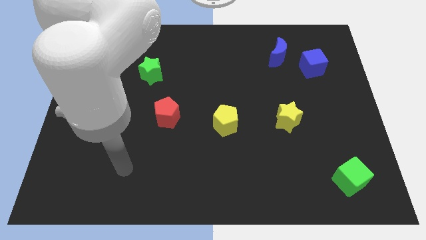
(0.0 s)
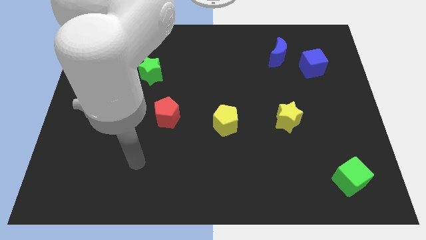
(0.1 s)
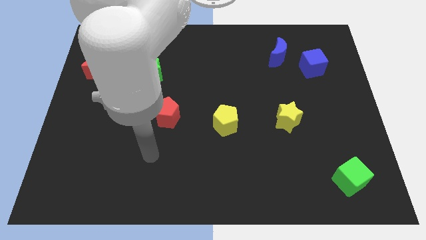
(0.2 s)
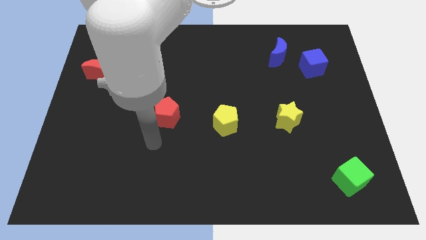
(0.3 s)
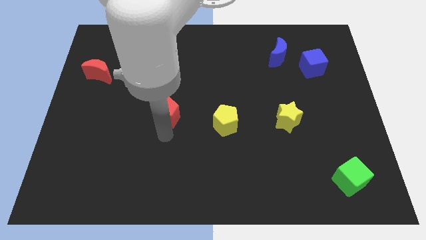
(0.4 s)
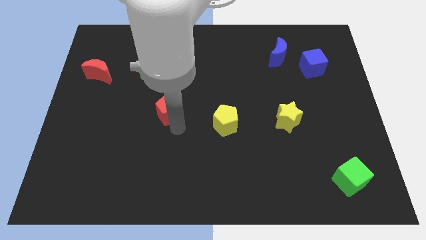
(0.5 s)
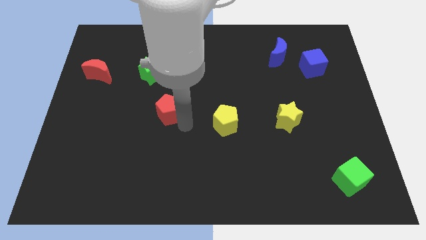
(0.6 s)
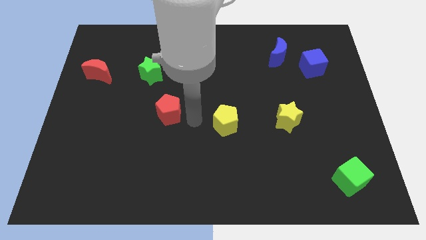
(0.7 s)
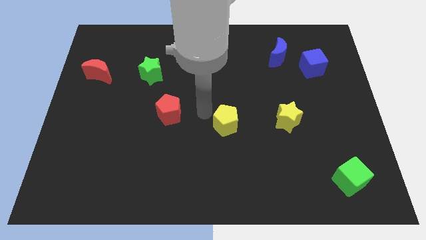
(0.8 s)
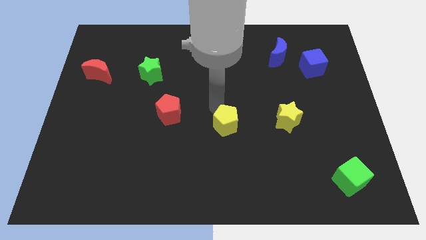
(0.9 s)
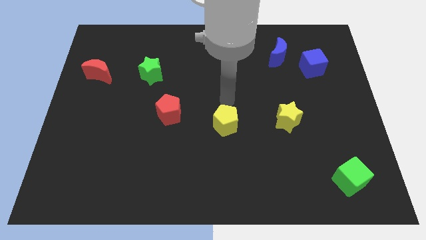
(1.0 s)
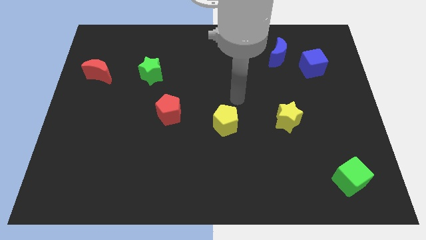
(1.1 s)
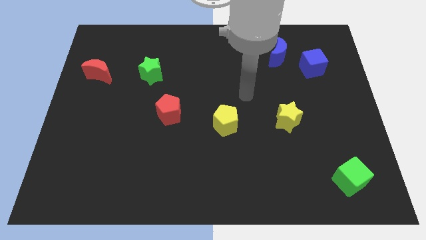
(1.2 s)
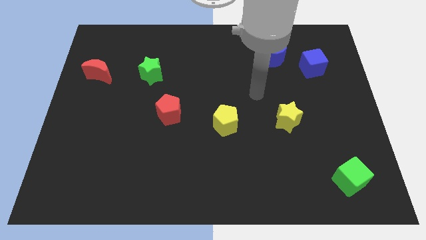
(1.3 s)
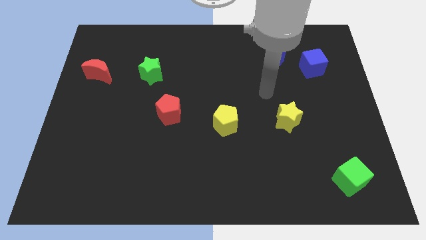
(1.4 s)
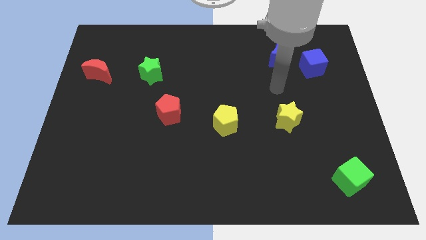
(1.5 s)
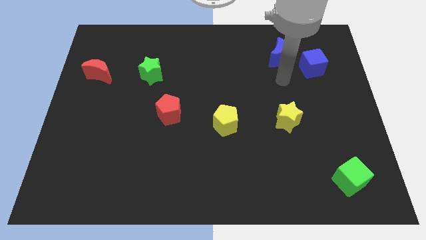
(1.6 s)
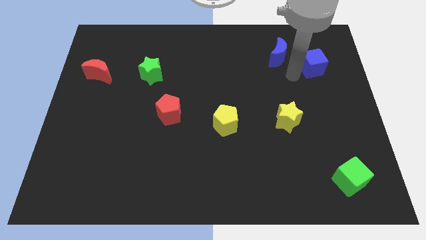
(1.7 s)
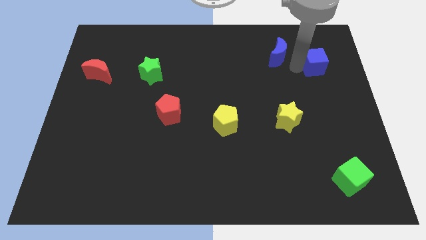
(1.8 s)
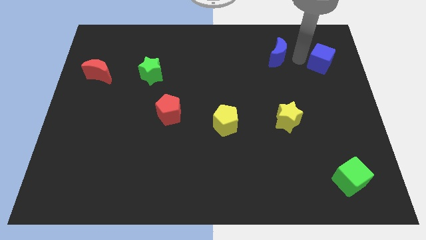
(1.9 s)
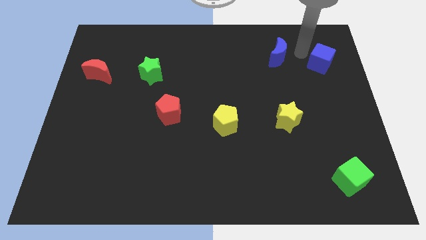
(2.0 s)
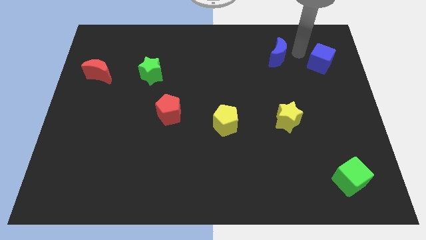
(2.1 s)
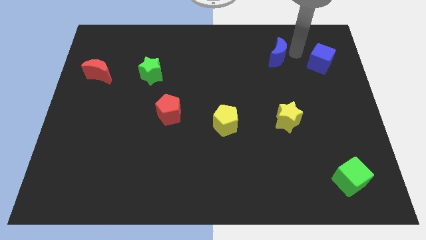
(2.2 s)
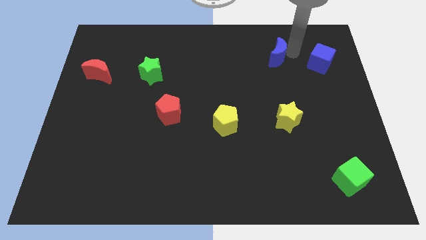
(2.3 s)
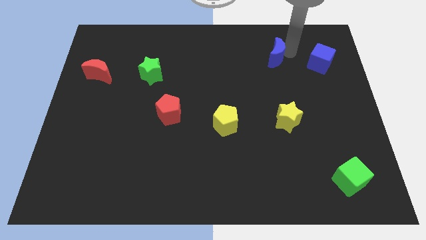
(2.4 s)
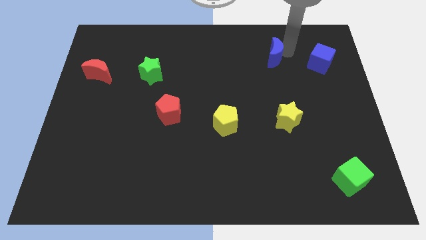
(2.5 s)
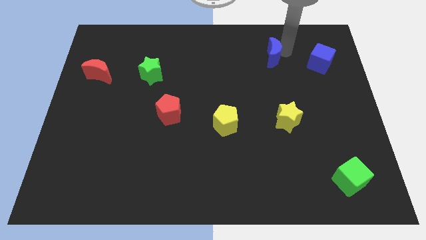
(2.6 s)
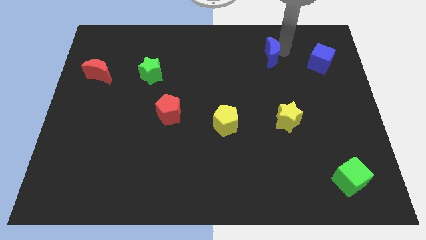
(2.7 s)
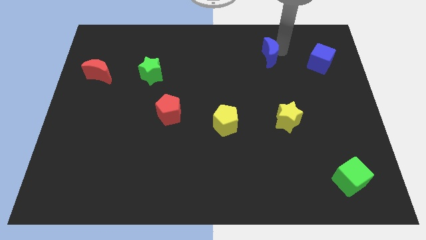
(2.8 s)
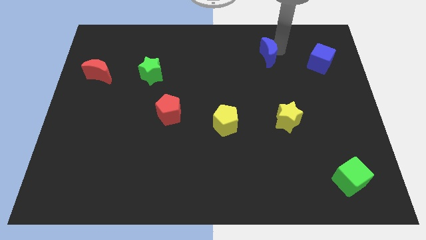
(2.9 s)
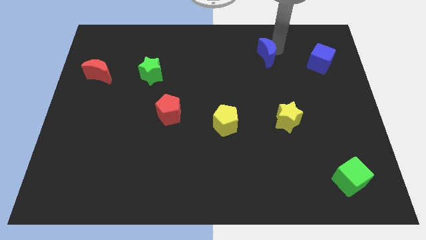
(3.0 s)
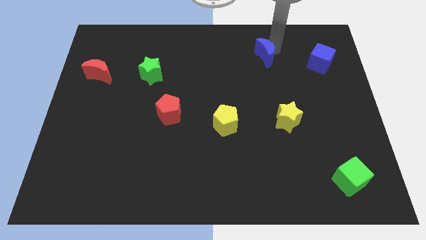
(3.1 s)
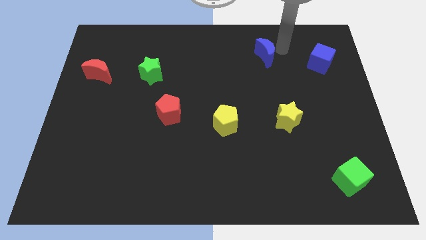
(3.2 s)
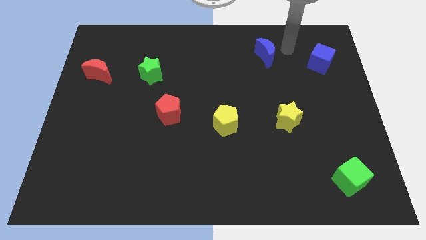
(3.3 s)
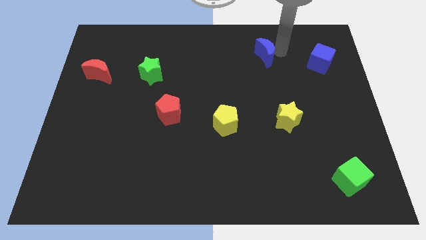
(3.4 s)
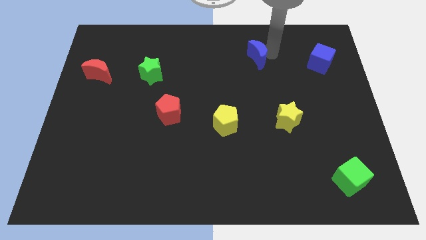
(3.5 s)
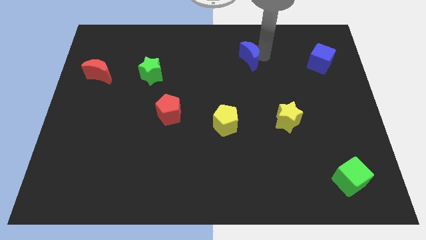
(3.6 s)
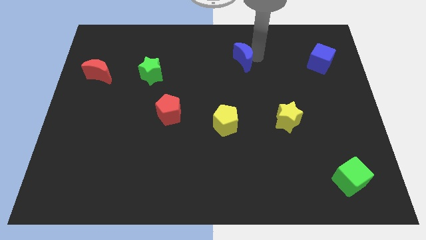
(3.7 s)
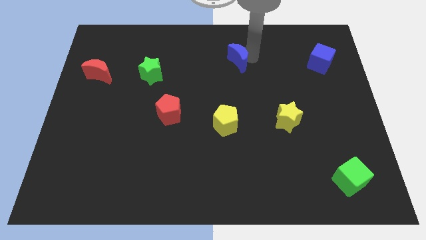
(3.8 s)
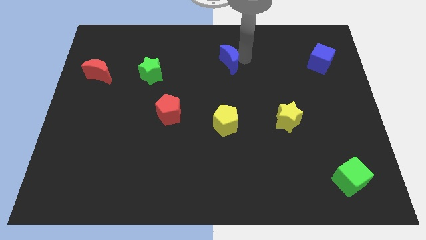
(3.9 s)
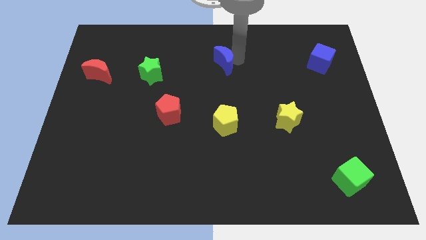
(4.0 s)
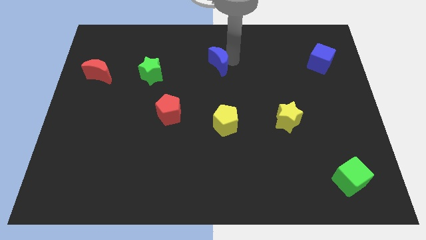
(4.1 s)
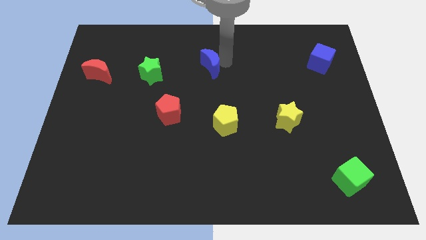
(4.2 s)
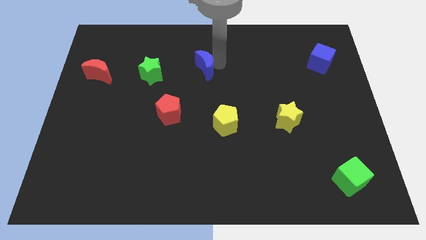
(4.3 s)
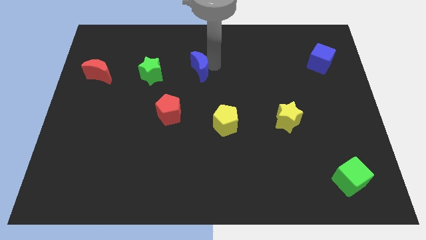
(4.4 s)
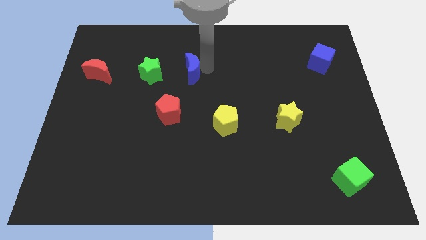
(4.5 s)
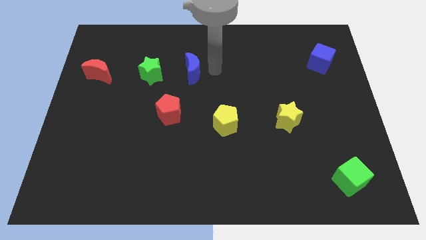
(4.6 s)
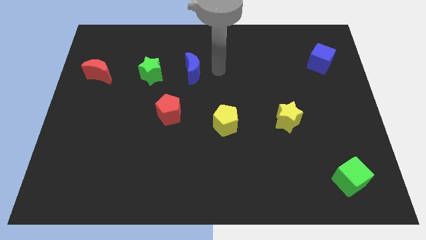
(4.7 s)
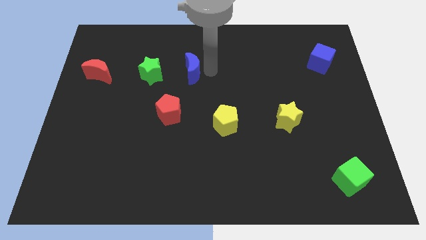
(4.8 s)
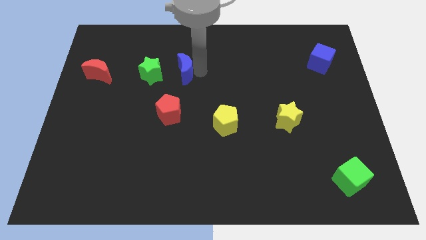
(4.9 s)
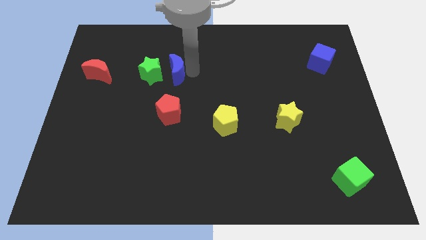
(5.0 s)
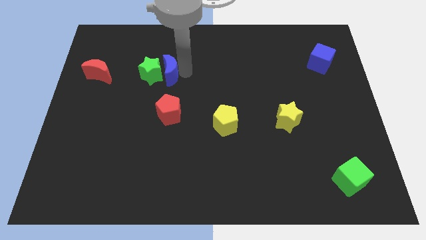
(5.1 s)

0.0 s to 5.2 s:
put the blue moon to the green star

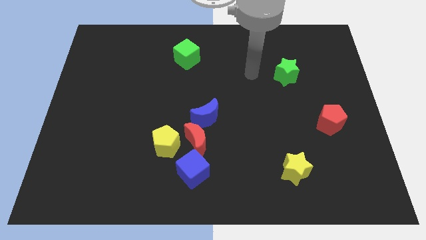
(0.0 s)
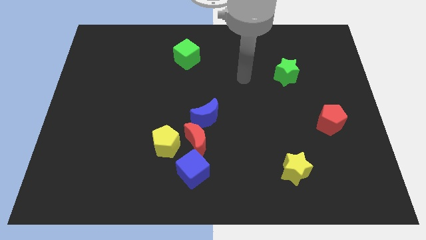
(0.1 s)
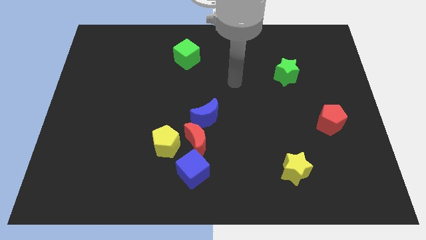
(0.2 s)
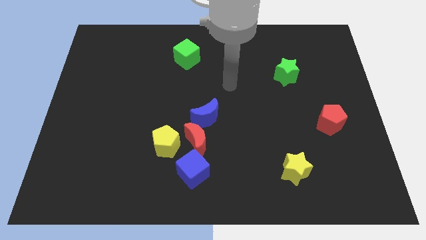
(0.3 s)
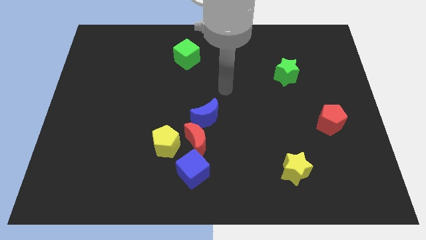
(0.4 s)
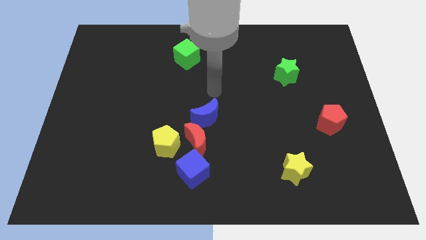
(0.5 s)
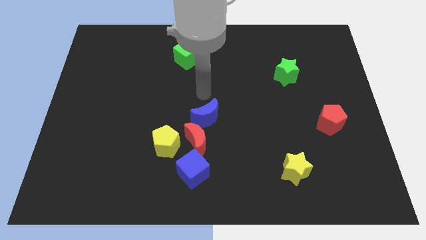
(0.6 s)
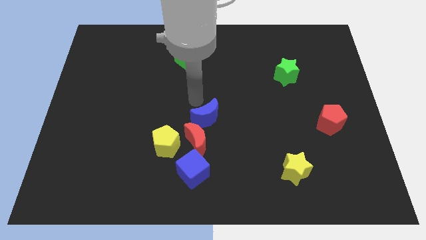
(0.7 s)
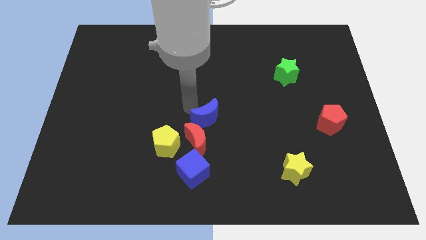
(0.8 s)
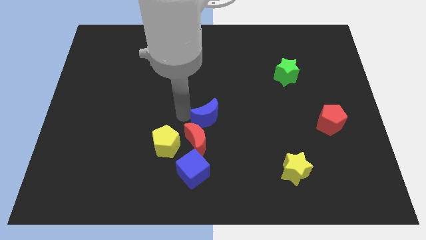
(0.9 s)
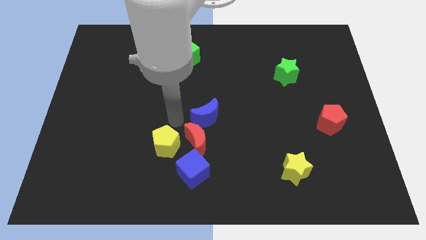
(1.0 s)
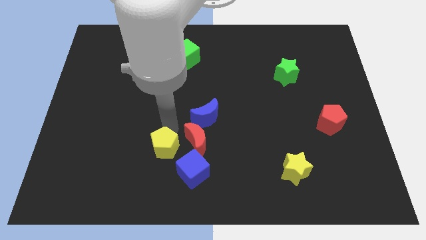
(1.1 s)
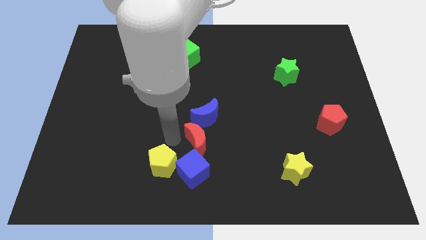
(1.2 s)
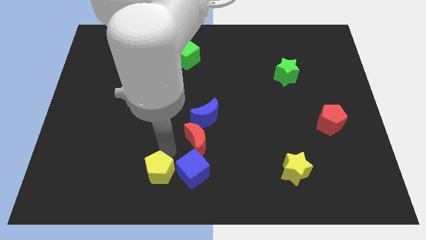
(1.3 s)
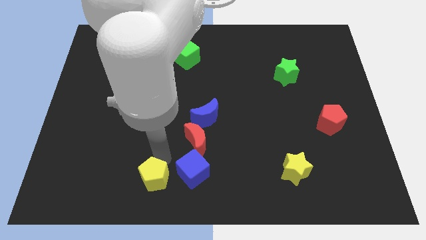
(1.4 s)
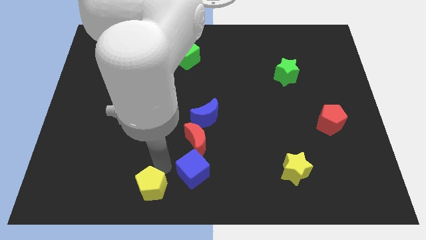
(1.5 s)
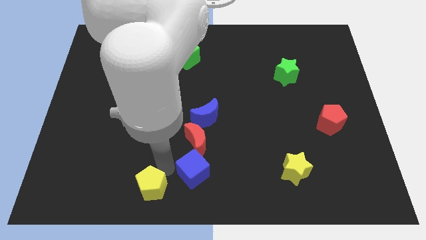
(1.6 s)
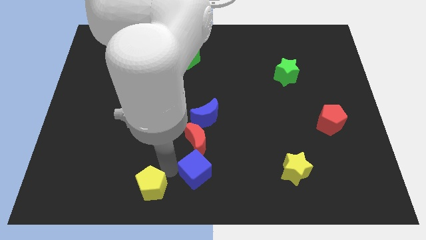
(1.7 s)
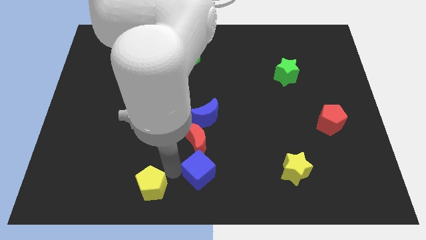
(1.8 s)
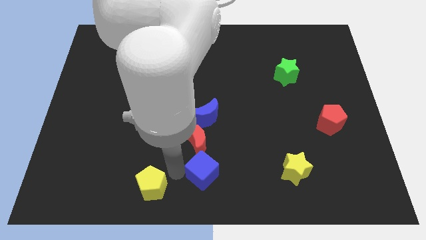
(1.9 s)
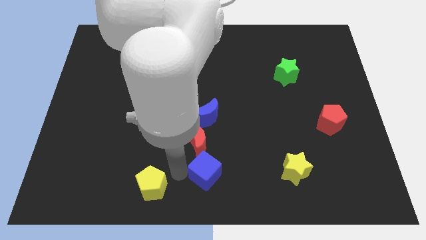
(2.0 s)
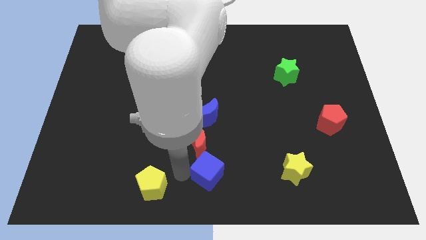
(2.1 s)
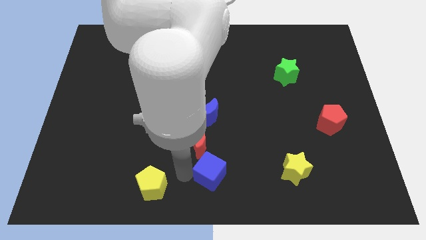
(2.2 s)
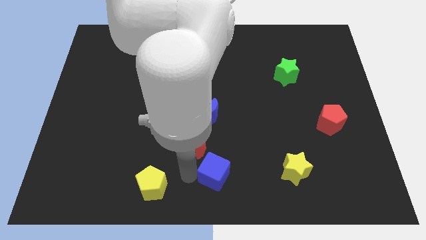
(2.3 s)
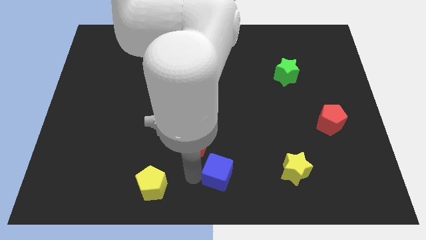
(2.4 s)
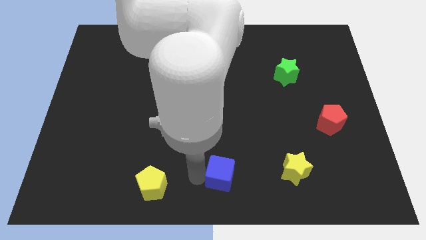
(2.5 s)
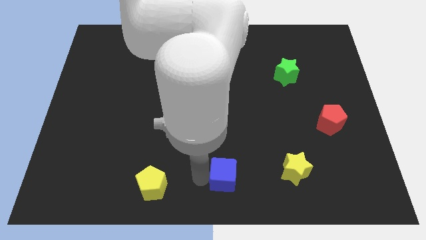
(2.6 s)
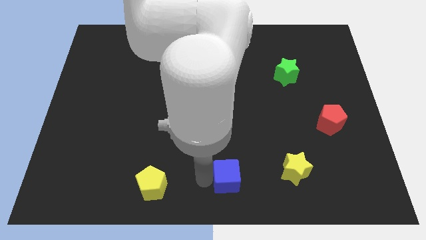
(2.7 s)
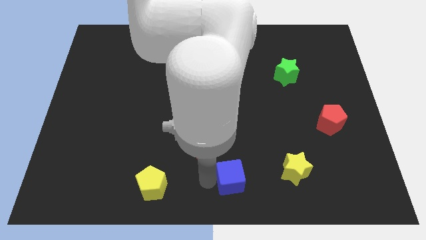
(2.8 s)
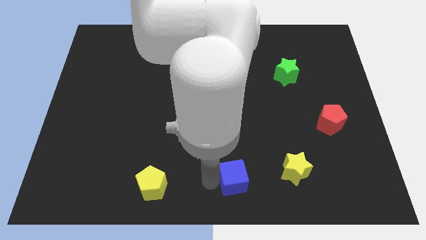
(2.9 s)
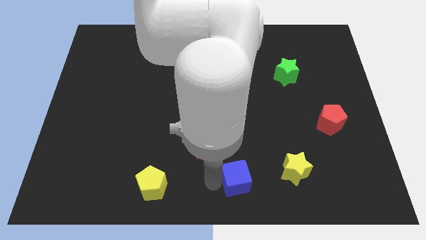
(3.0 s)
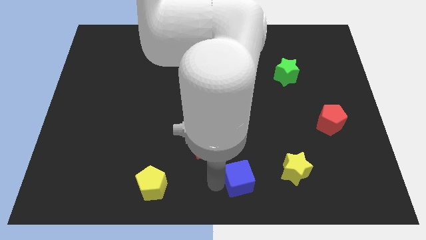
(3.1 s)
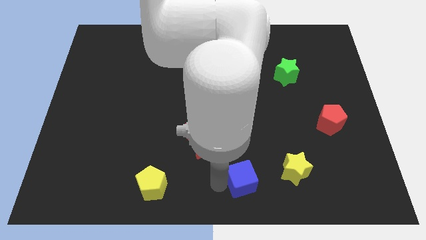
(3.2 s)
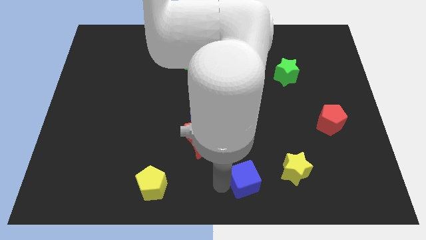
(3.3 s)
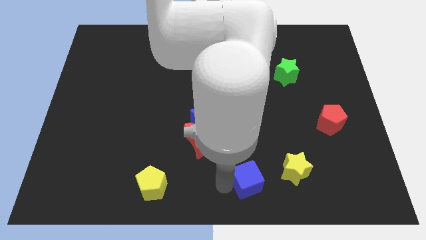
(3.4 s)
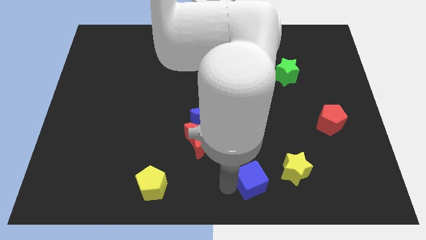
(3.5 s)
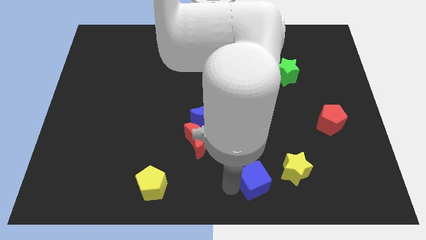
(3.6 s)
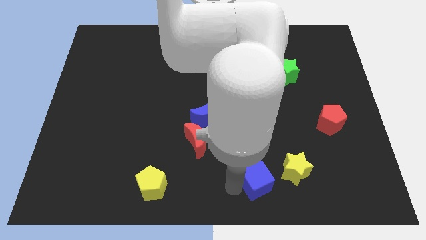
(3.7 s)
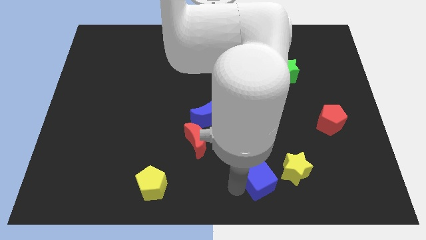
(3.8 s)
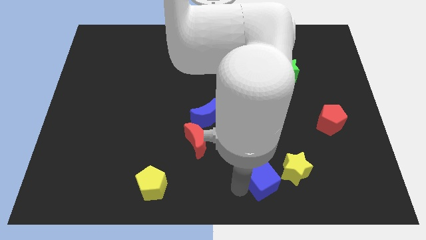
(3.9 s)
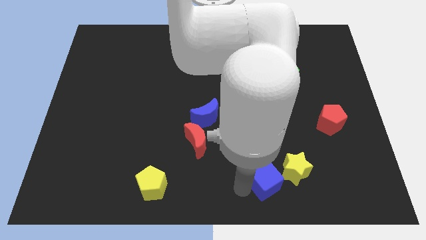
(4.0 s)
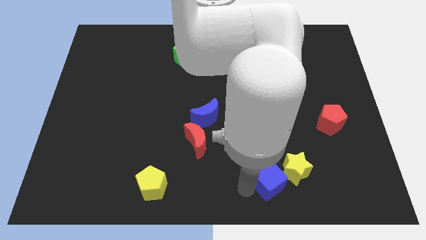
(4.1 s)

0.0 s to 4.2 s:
put the blue cube to the yellow star
